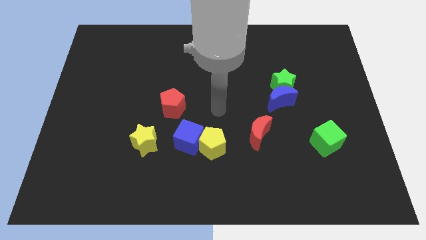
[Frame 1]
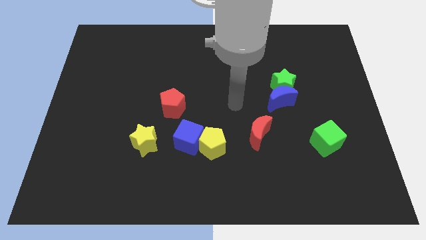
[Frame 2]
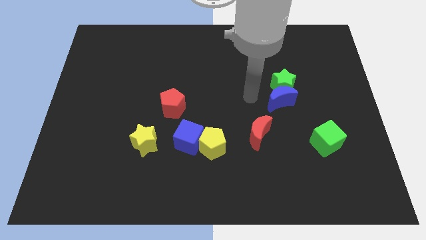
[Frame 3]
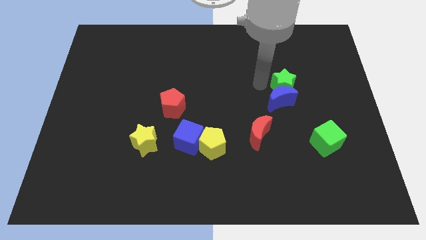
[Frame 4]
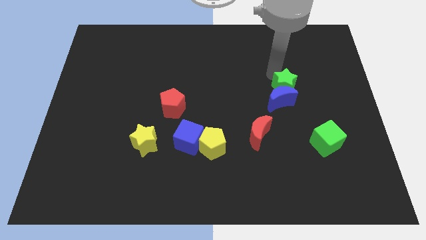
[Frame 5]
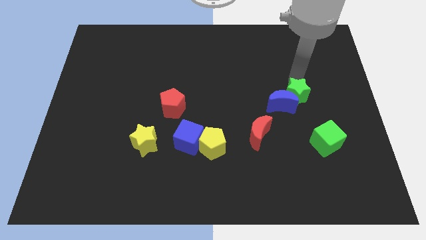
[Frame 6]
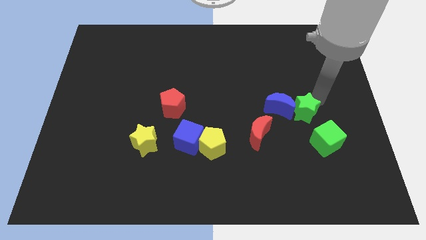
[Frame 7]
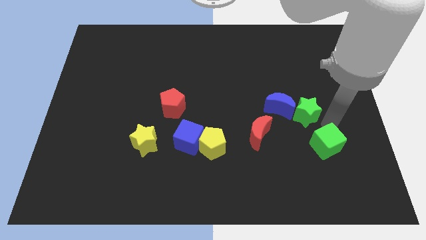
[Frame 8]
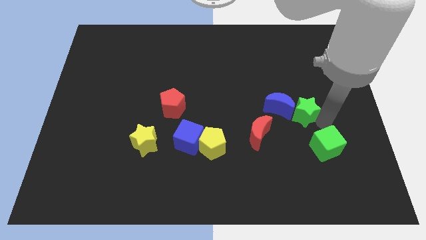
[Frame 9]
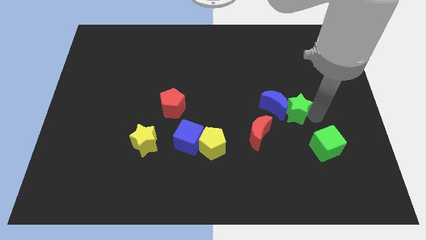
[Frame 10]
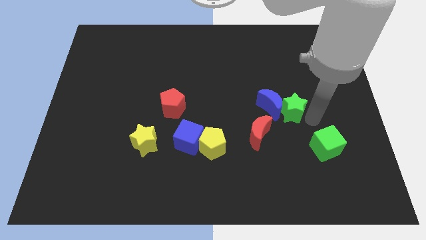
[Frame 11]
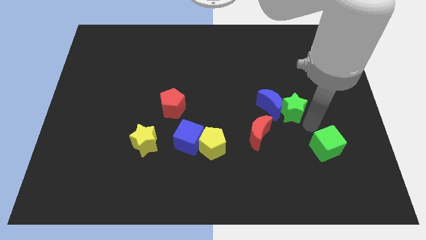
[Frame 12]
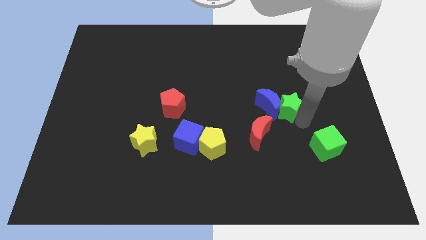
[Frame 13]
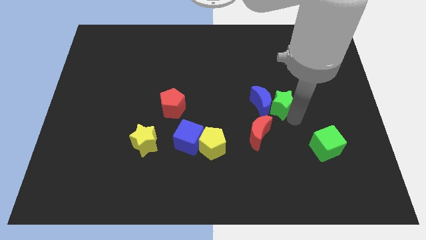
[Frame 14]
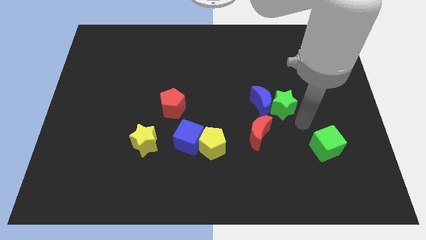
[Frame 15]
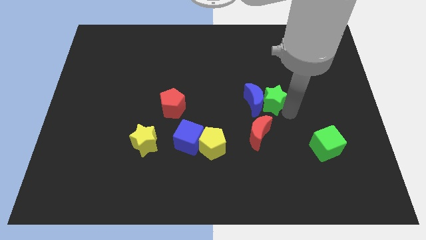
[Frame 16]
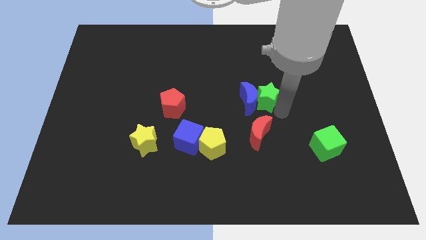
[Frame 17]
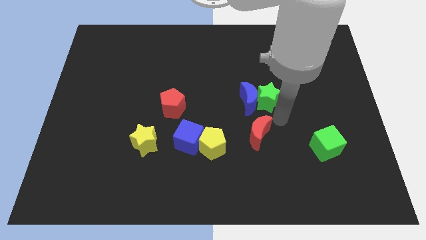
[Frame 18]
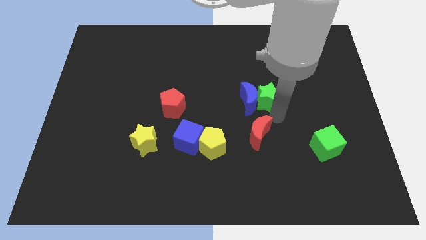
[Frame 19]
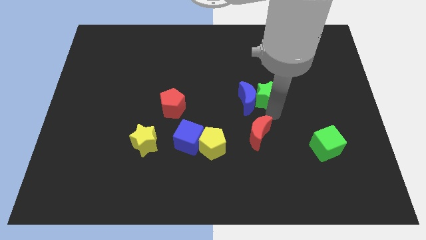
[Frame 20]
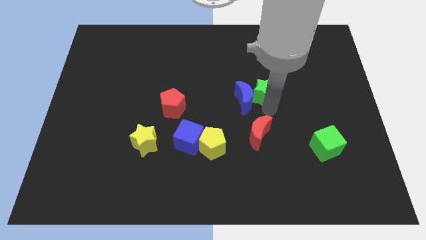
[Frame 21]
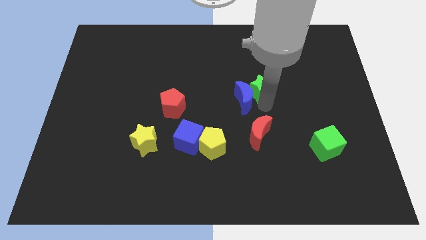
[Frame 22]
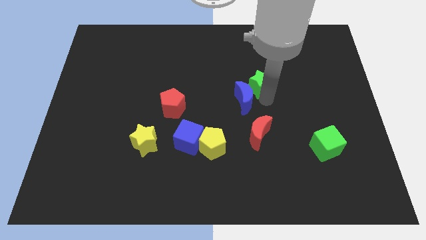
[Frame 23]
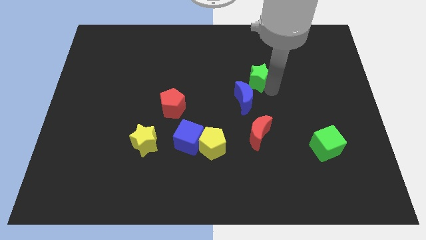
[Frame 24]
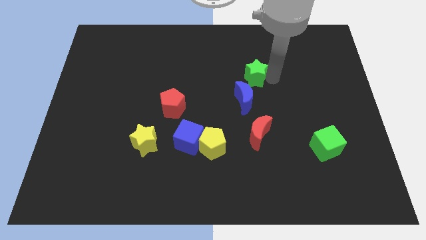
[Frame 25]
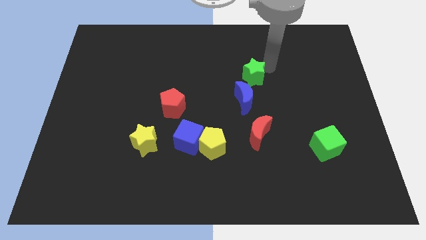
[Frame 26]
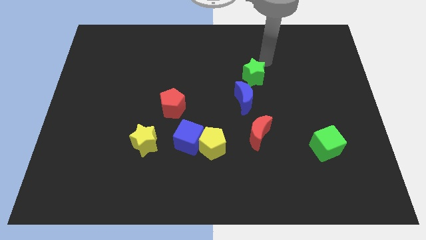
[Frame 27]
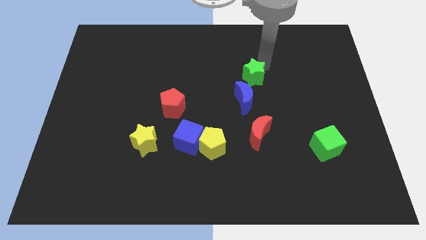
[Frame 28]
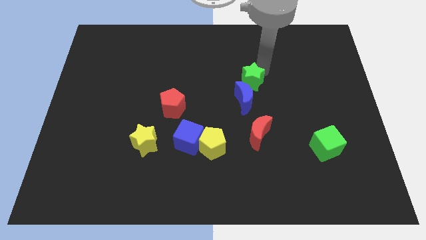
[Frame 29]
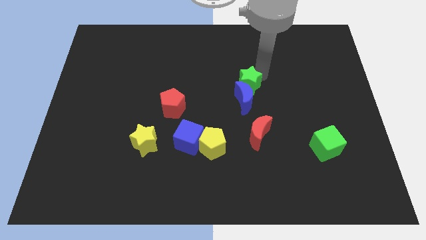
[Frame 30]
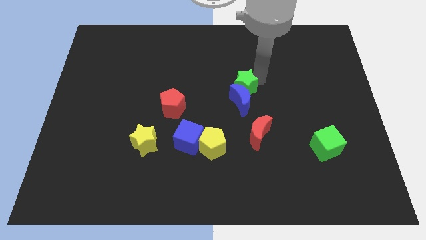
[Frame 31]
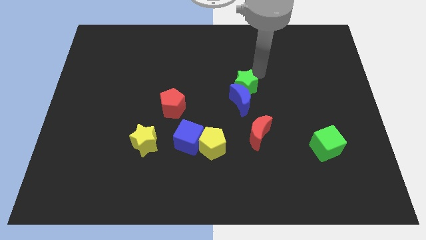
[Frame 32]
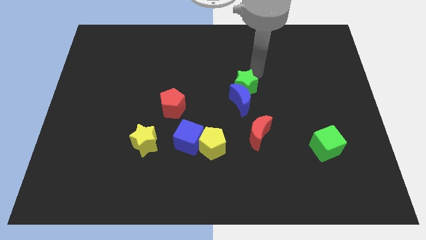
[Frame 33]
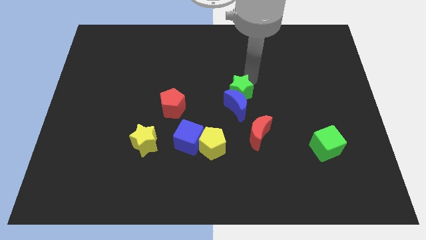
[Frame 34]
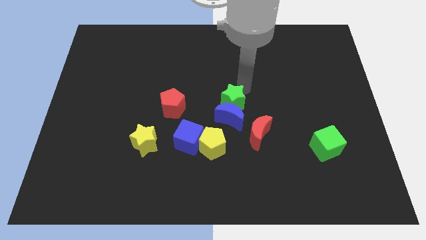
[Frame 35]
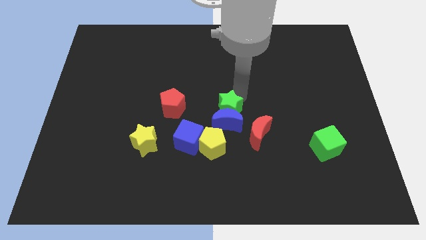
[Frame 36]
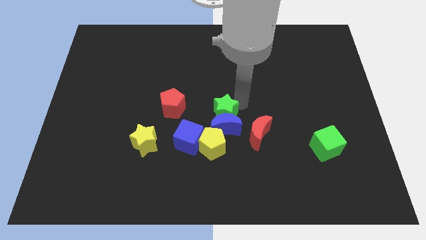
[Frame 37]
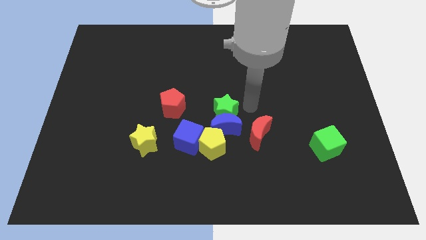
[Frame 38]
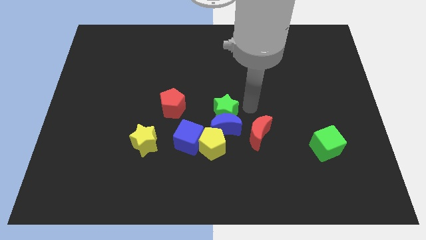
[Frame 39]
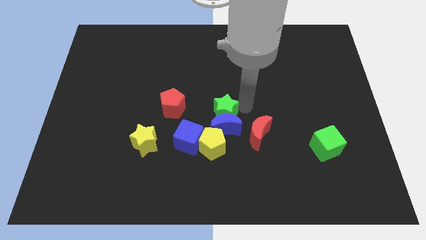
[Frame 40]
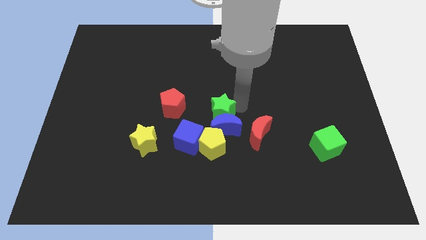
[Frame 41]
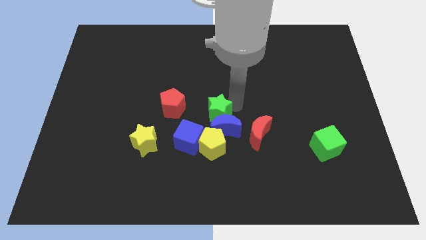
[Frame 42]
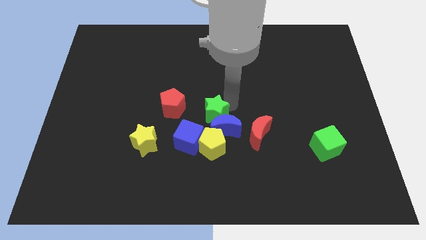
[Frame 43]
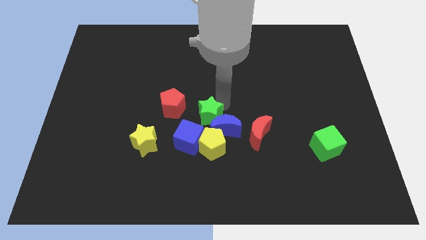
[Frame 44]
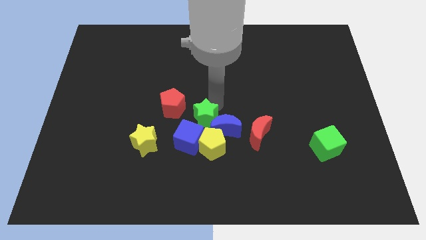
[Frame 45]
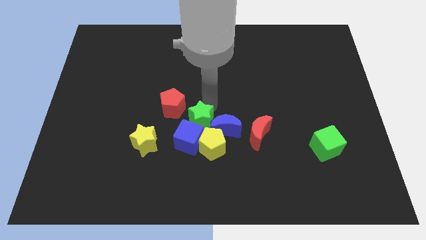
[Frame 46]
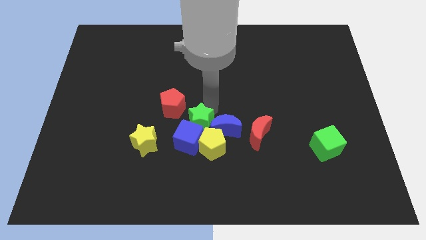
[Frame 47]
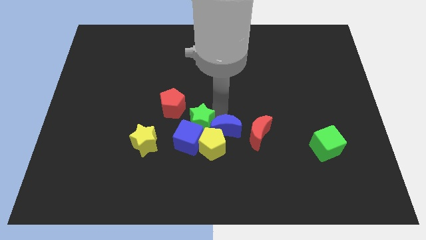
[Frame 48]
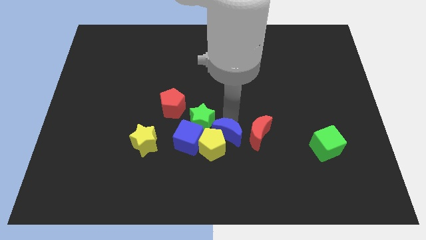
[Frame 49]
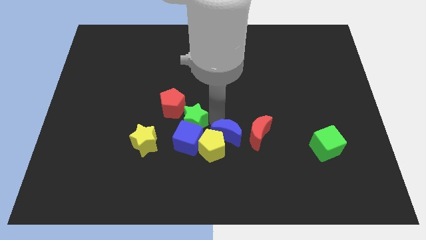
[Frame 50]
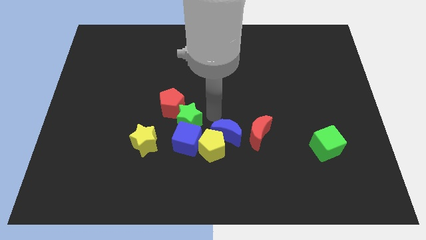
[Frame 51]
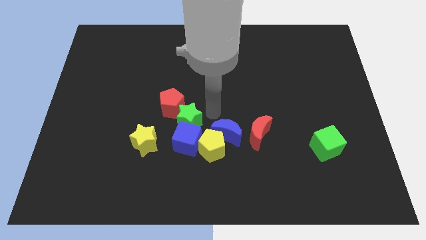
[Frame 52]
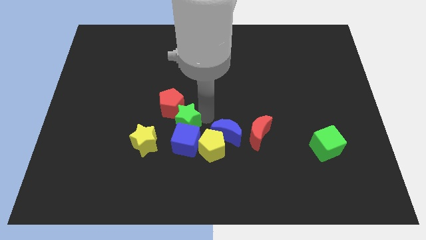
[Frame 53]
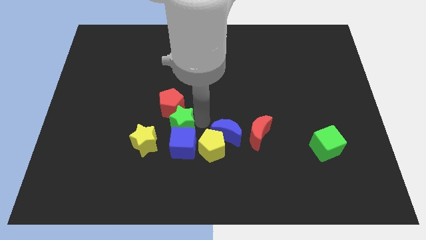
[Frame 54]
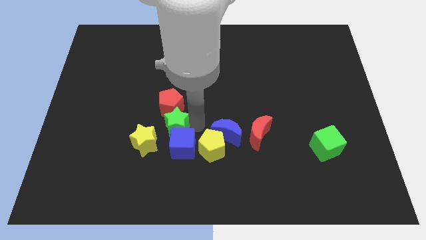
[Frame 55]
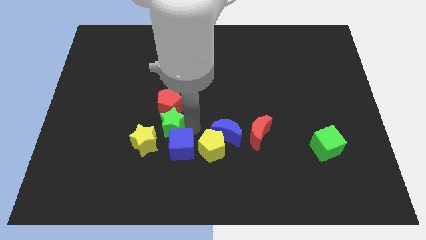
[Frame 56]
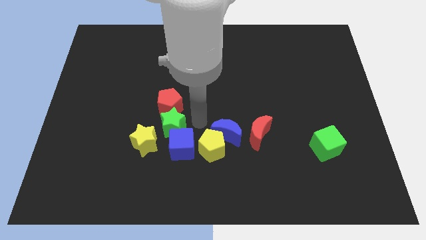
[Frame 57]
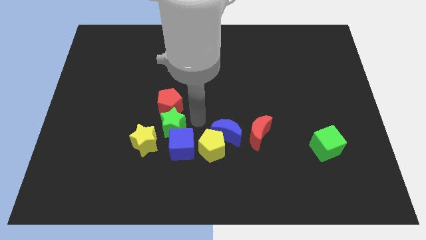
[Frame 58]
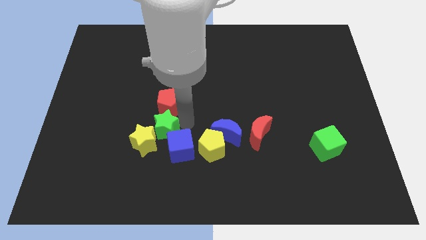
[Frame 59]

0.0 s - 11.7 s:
push the green star towards the yellow star

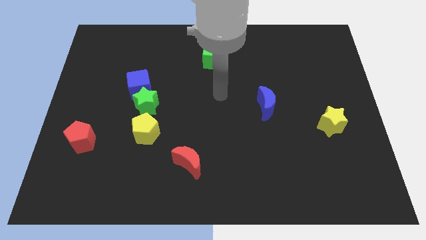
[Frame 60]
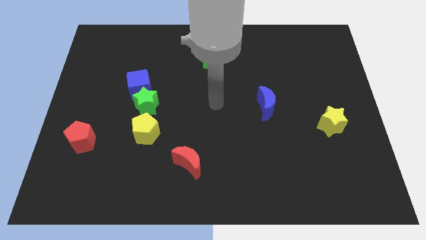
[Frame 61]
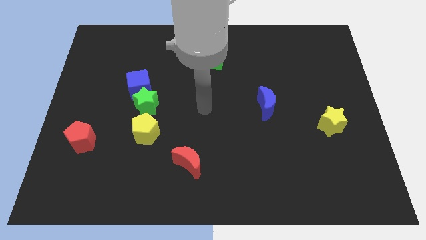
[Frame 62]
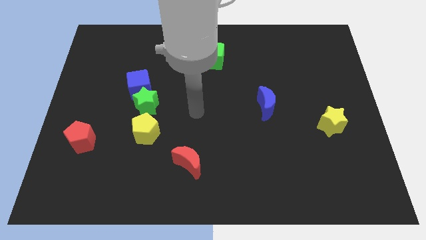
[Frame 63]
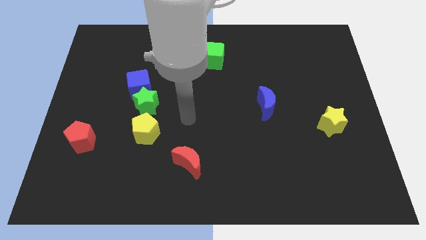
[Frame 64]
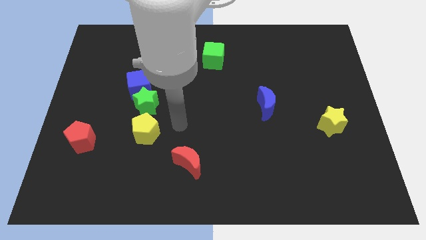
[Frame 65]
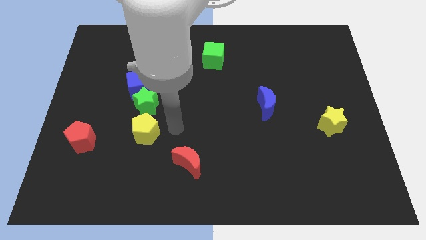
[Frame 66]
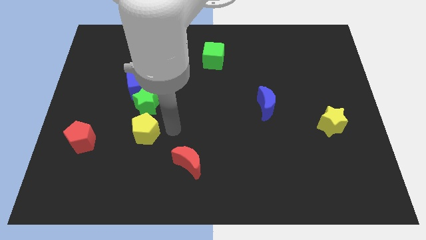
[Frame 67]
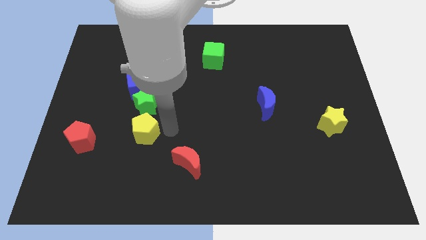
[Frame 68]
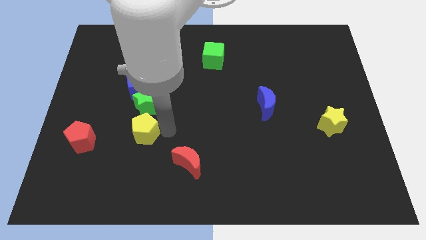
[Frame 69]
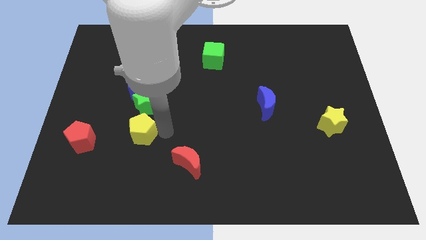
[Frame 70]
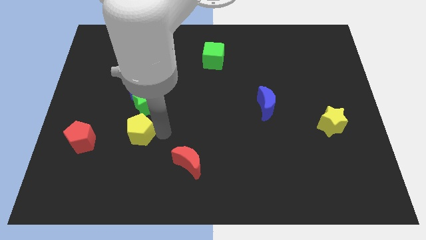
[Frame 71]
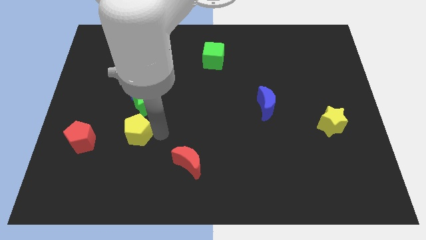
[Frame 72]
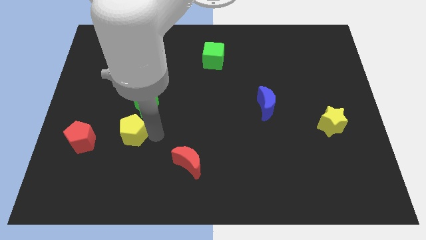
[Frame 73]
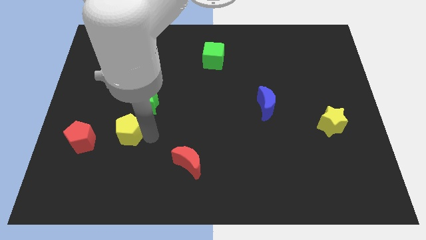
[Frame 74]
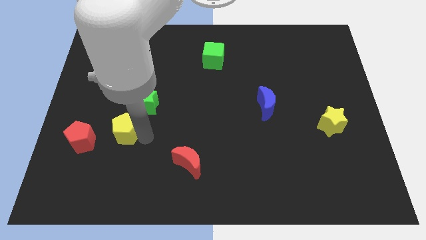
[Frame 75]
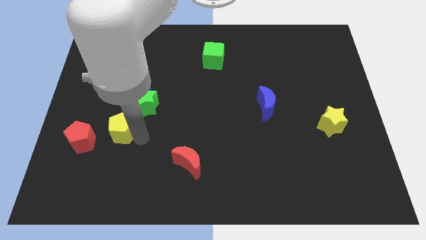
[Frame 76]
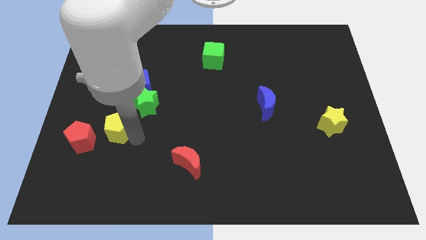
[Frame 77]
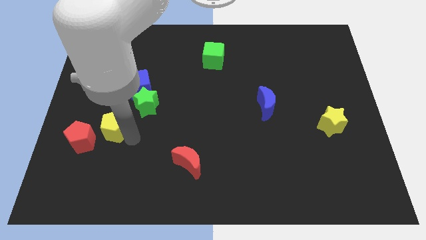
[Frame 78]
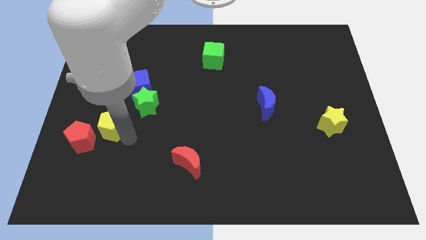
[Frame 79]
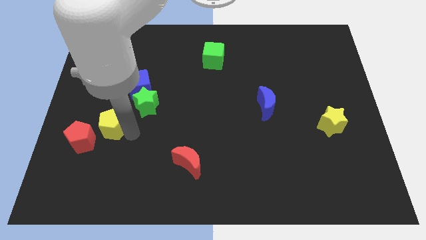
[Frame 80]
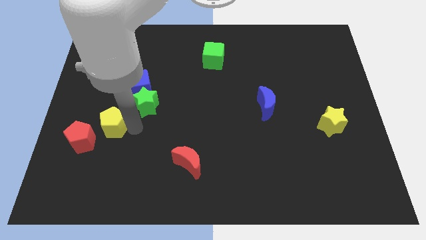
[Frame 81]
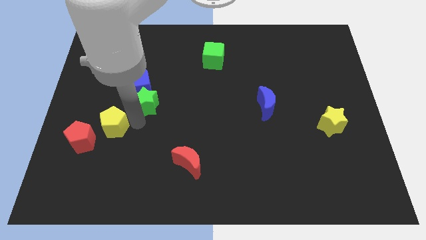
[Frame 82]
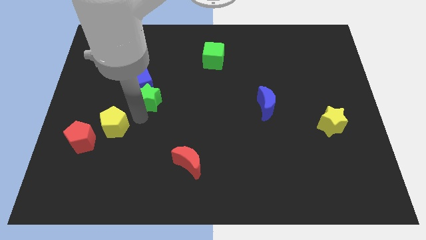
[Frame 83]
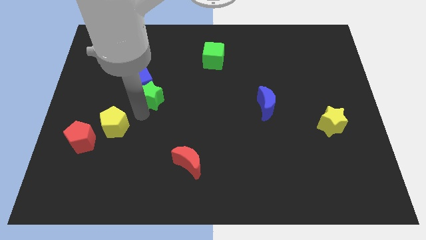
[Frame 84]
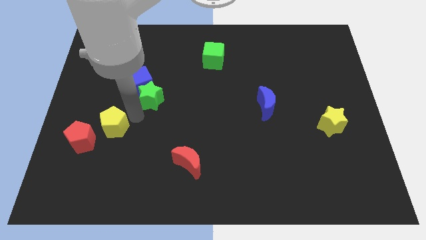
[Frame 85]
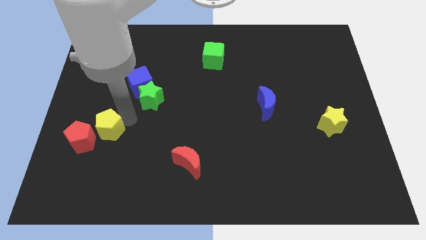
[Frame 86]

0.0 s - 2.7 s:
slide the yellow pentagon to the red pentagon
